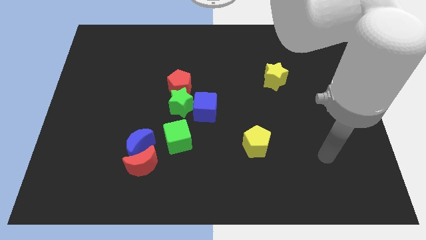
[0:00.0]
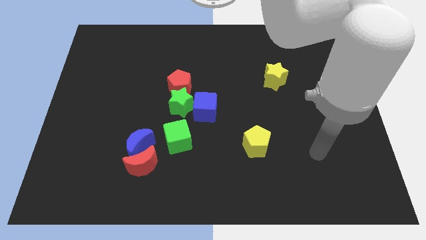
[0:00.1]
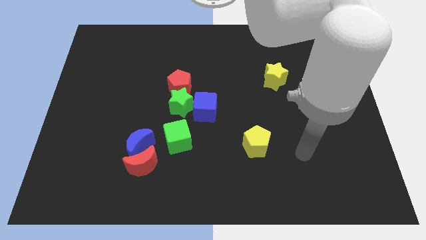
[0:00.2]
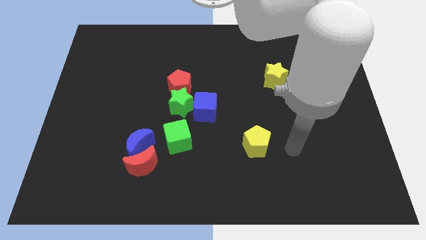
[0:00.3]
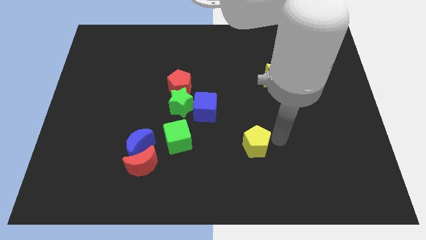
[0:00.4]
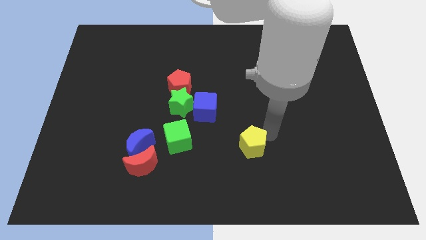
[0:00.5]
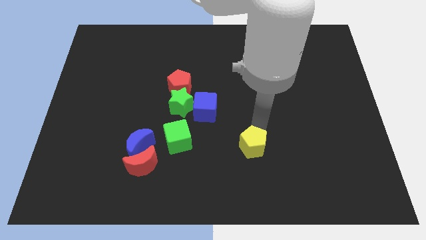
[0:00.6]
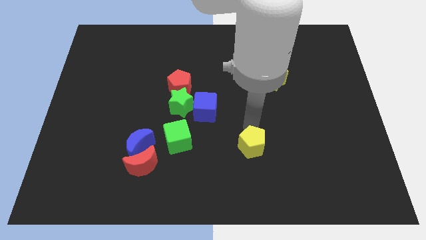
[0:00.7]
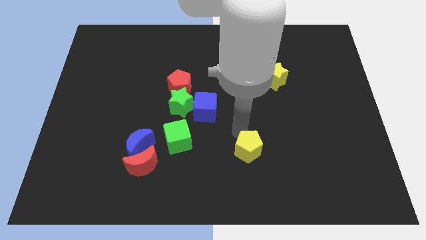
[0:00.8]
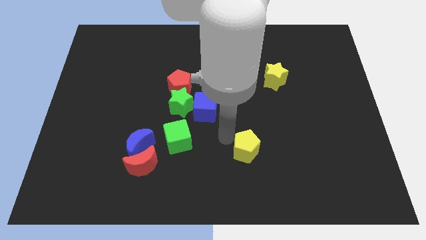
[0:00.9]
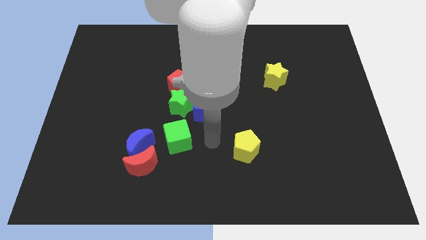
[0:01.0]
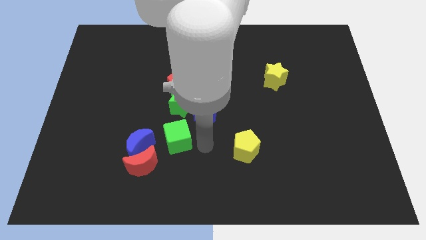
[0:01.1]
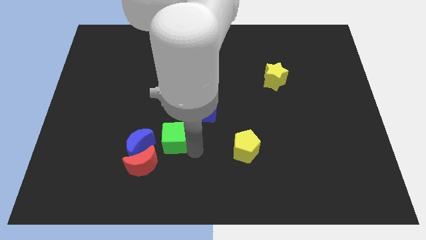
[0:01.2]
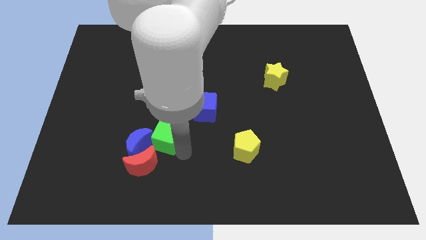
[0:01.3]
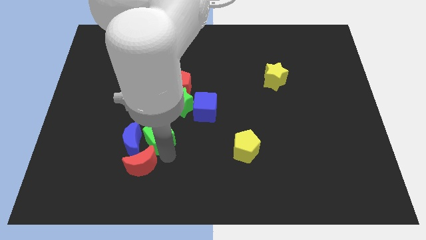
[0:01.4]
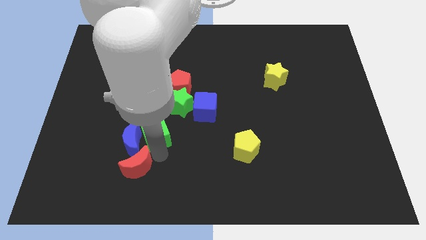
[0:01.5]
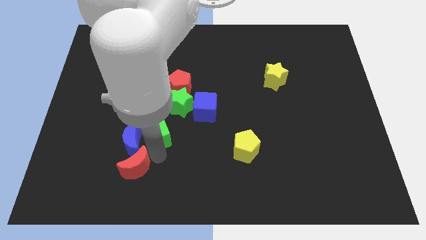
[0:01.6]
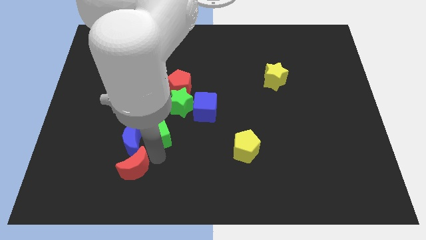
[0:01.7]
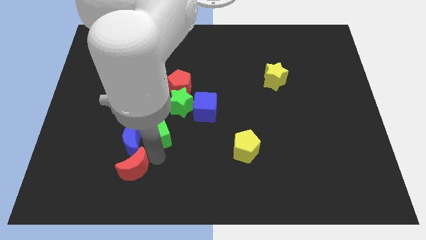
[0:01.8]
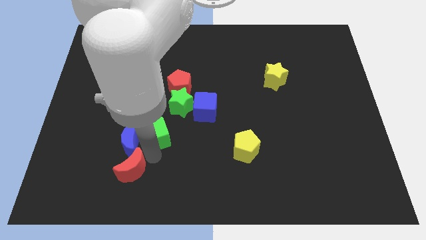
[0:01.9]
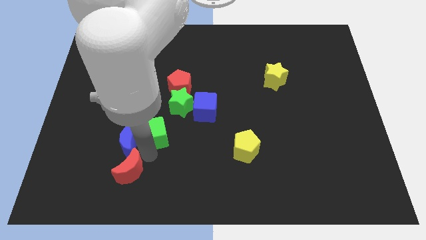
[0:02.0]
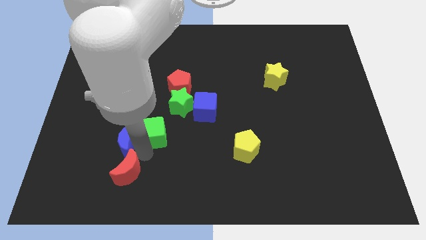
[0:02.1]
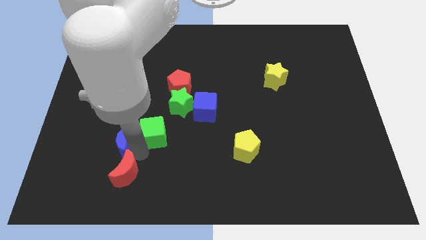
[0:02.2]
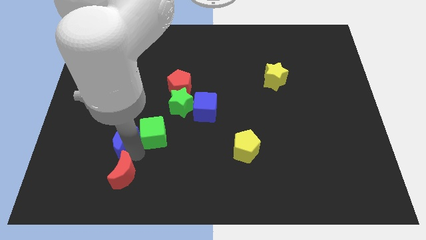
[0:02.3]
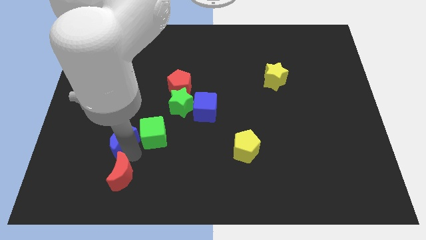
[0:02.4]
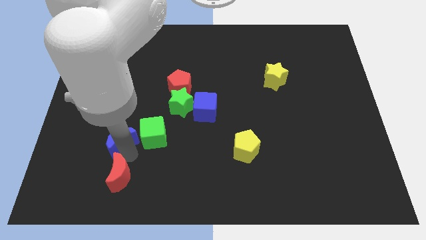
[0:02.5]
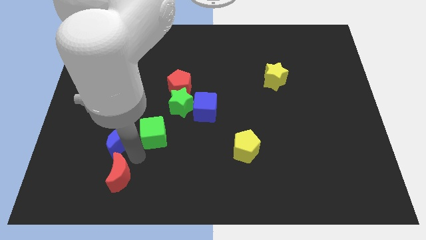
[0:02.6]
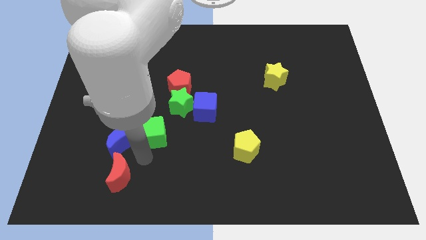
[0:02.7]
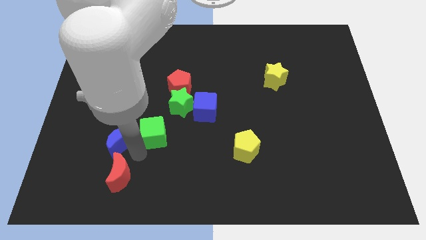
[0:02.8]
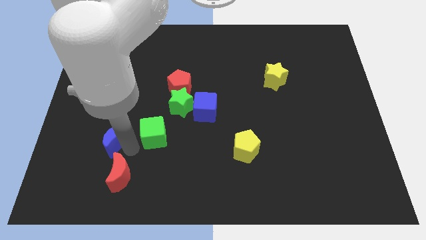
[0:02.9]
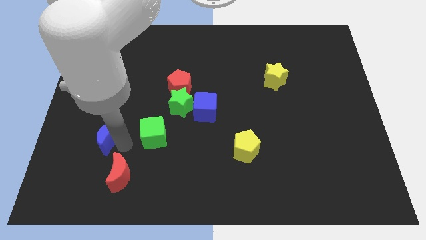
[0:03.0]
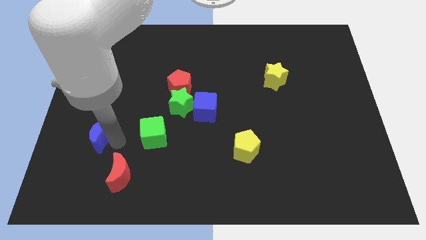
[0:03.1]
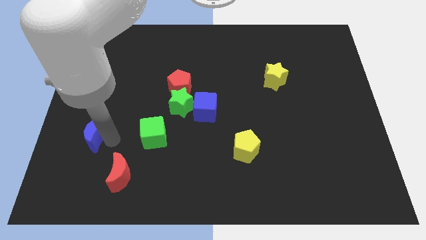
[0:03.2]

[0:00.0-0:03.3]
pull the blue moon apart from the red moon and green cube

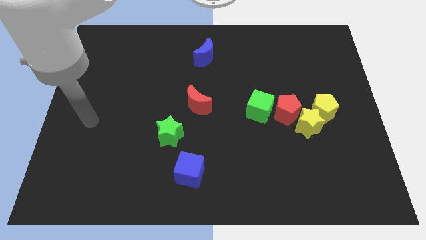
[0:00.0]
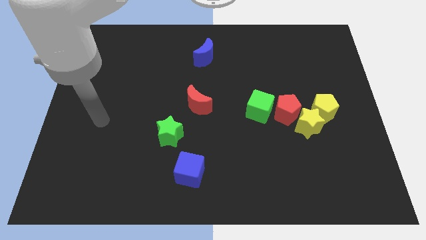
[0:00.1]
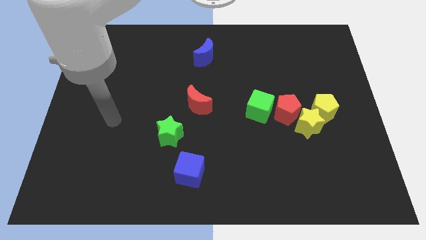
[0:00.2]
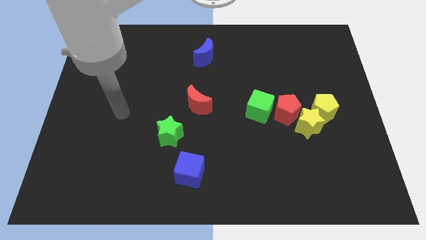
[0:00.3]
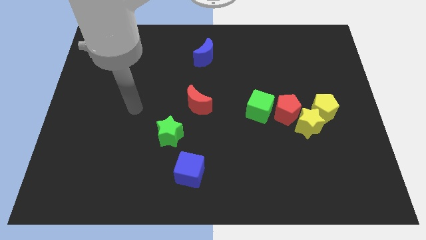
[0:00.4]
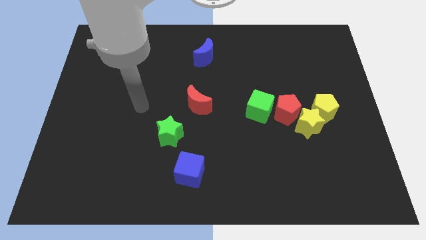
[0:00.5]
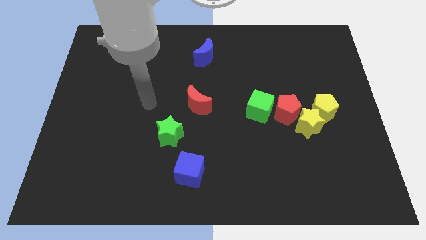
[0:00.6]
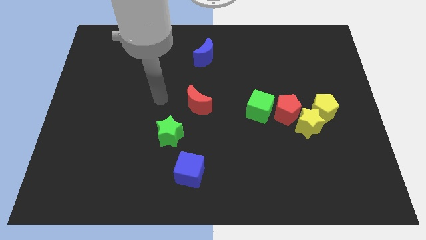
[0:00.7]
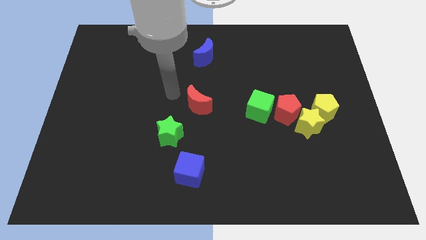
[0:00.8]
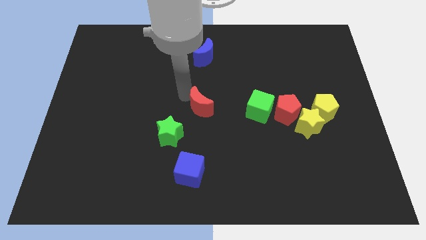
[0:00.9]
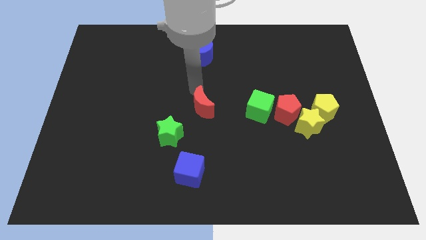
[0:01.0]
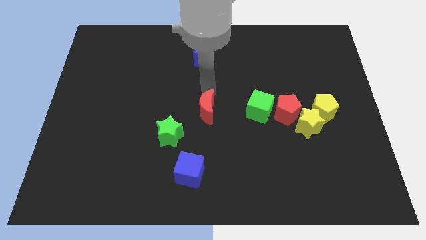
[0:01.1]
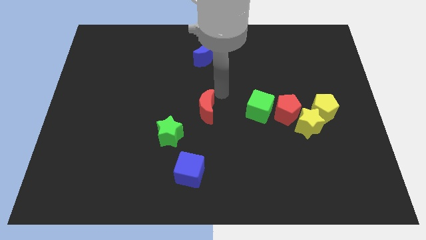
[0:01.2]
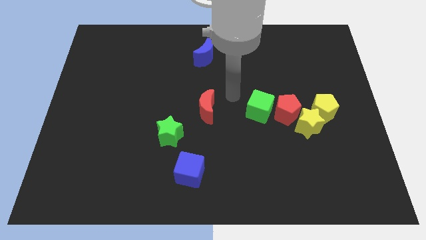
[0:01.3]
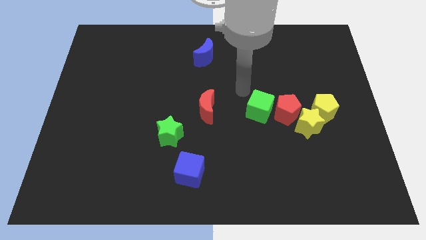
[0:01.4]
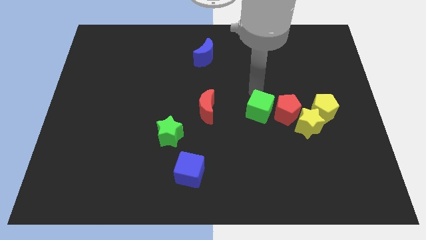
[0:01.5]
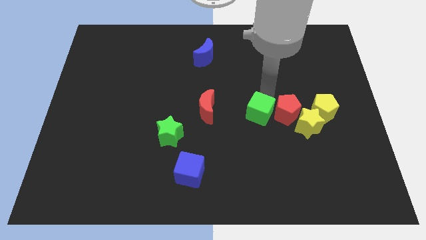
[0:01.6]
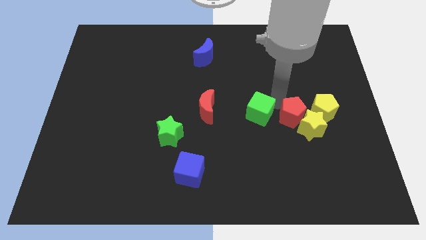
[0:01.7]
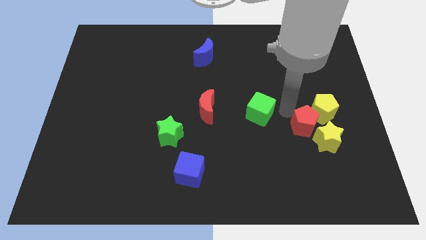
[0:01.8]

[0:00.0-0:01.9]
separate the green cube from the red pentagon

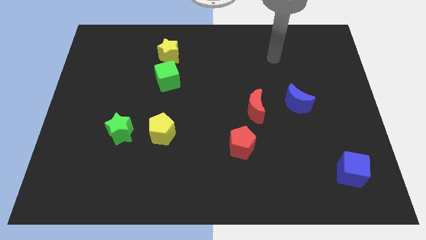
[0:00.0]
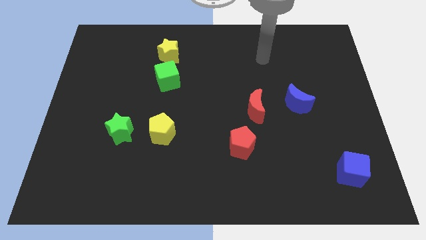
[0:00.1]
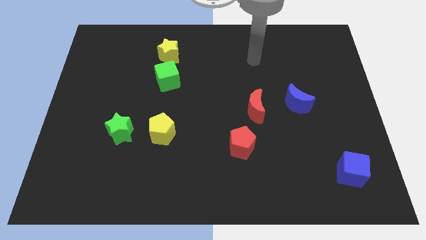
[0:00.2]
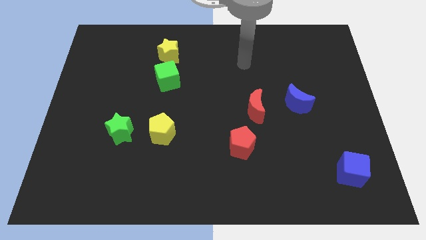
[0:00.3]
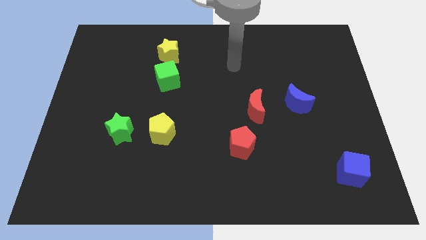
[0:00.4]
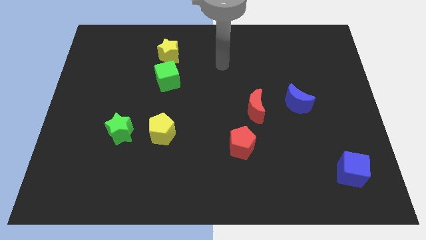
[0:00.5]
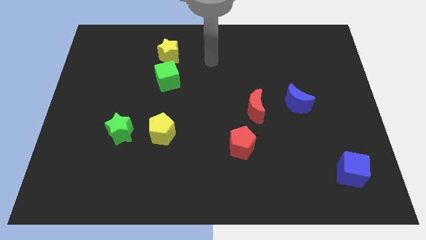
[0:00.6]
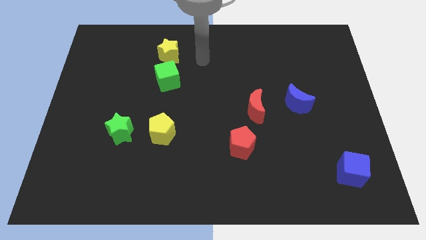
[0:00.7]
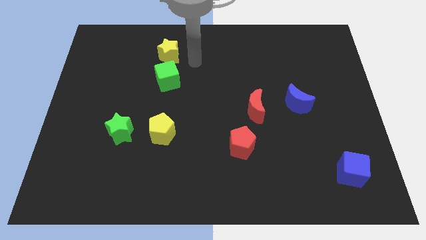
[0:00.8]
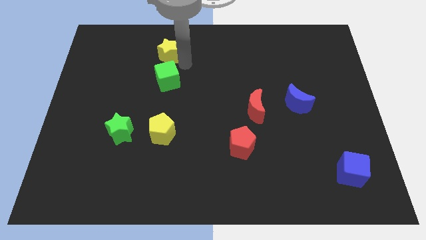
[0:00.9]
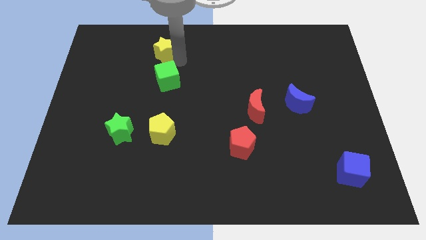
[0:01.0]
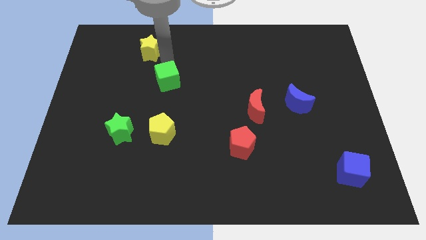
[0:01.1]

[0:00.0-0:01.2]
separate the green cube from the yellow star

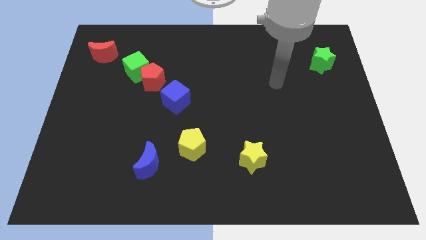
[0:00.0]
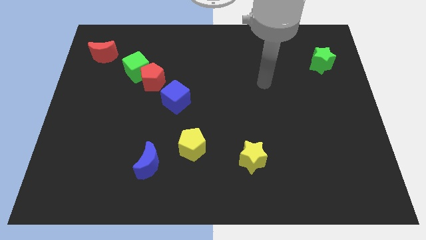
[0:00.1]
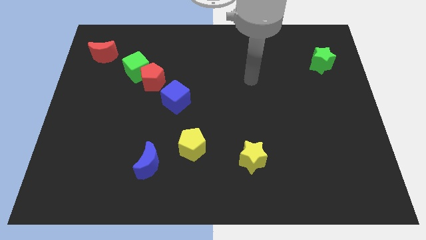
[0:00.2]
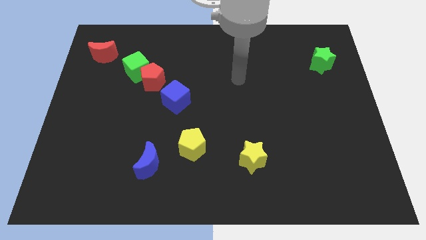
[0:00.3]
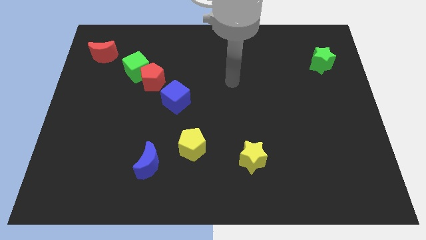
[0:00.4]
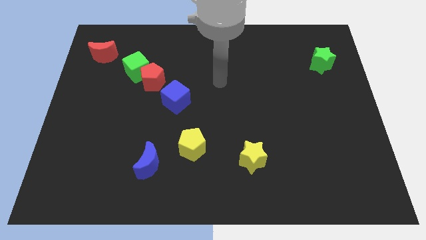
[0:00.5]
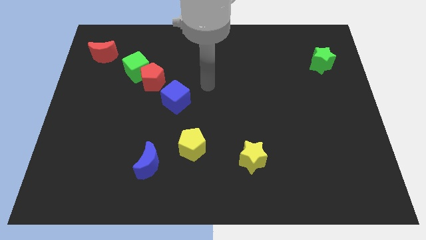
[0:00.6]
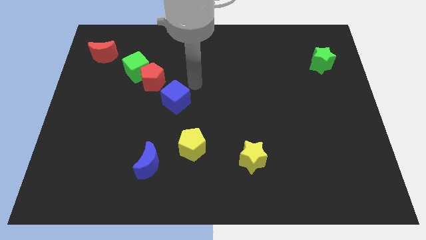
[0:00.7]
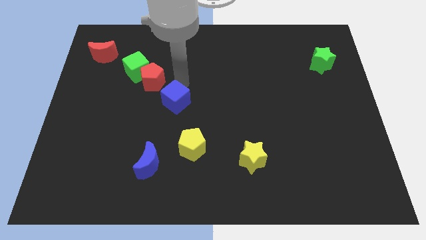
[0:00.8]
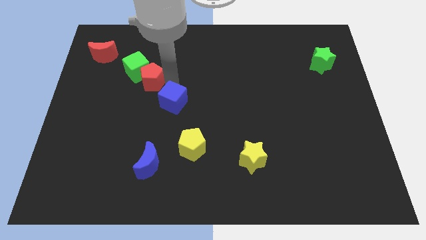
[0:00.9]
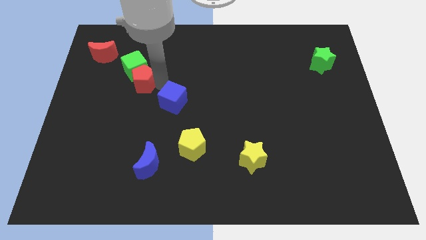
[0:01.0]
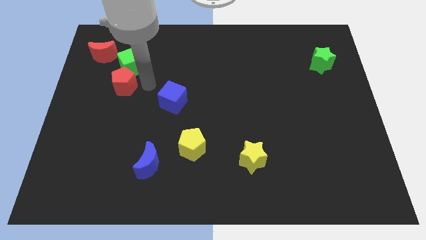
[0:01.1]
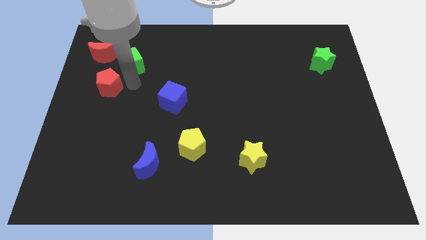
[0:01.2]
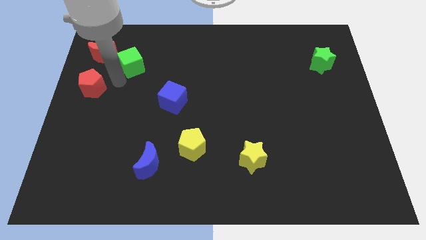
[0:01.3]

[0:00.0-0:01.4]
move the green cube away from the red pentagon

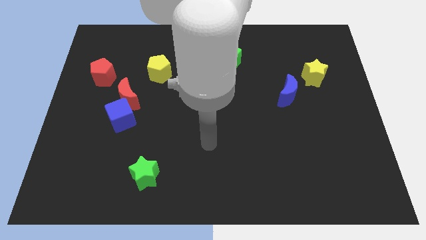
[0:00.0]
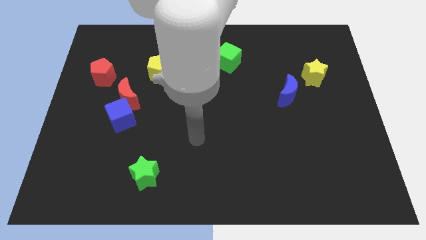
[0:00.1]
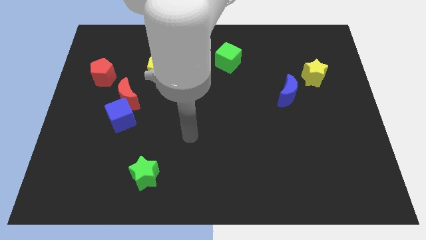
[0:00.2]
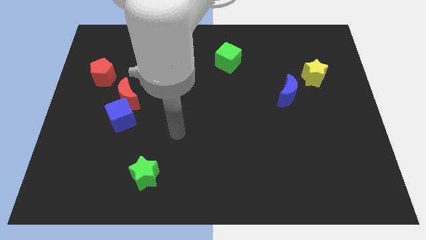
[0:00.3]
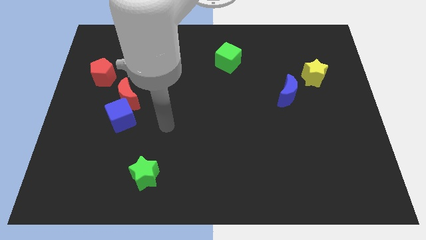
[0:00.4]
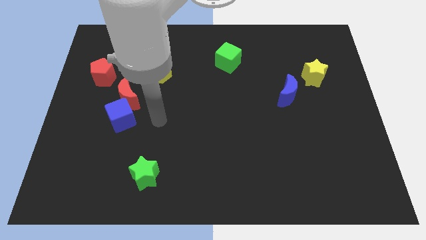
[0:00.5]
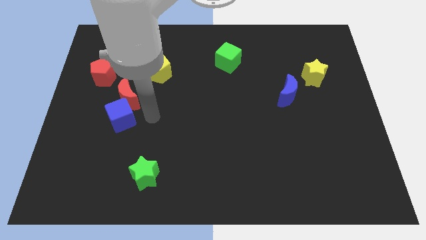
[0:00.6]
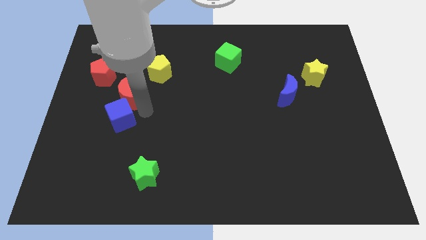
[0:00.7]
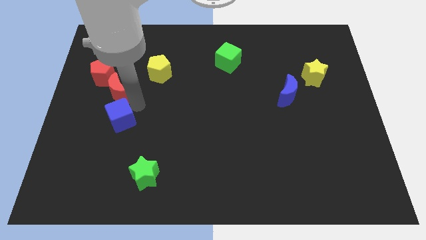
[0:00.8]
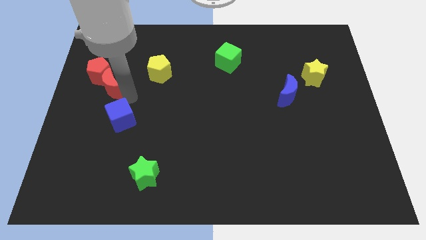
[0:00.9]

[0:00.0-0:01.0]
move the blue cube away from the red moon

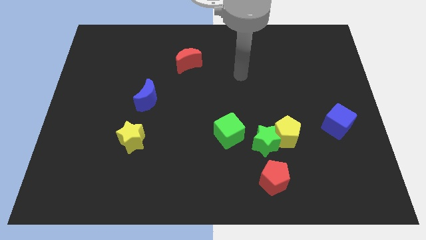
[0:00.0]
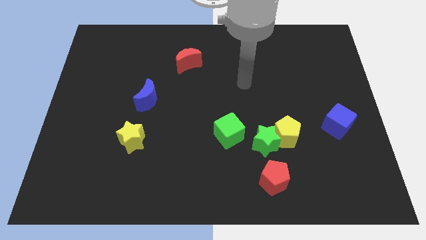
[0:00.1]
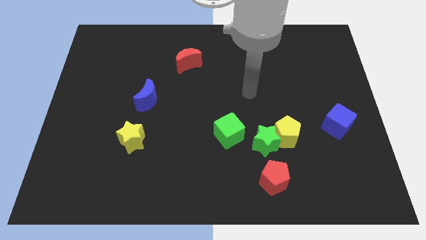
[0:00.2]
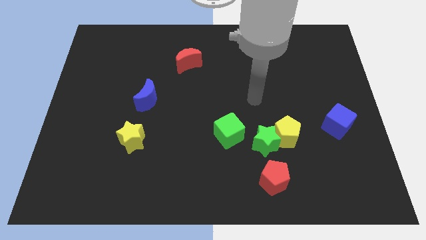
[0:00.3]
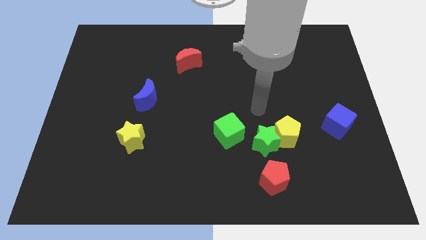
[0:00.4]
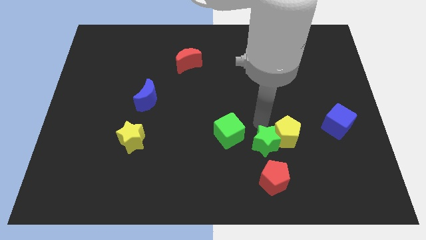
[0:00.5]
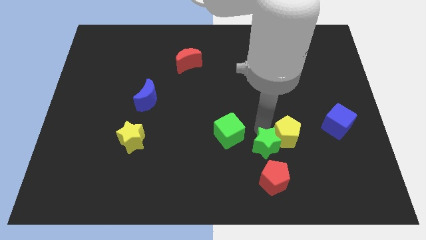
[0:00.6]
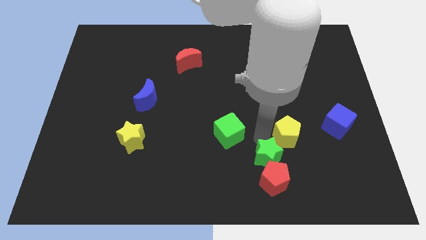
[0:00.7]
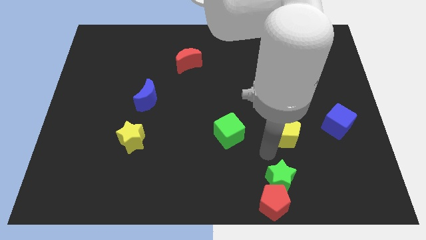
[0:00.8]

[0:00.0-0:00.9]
pull the yellow pentagon apart from the green star
